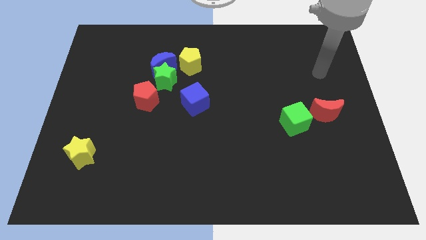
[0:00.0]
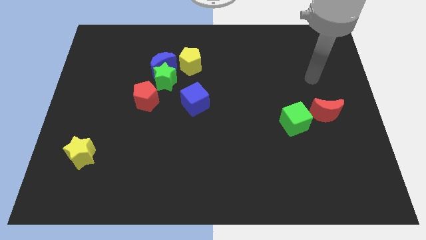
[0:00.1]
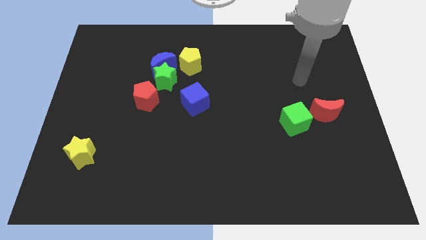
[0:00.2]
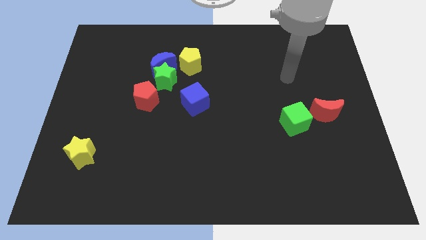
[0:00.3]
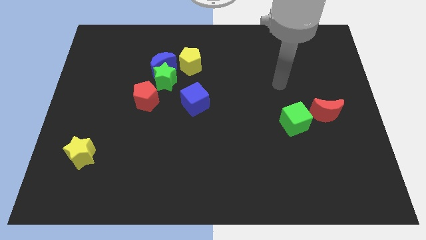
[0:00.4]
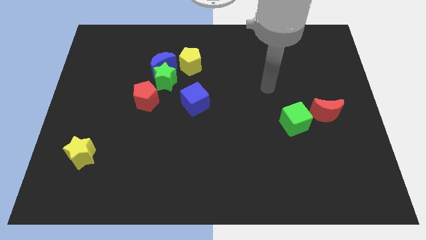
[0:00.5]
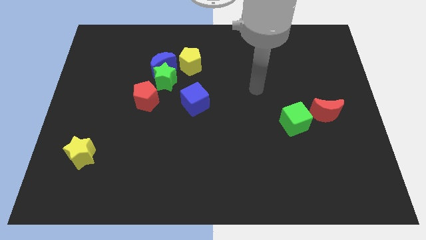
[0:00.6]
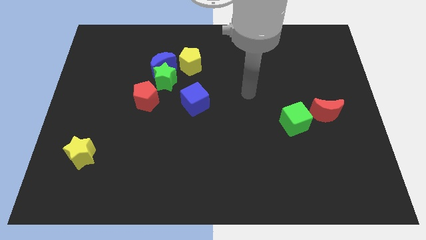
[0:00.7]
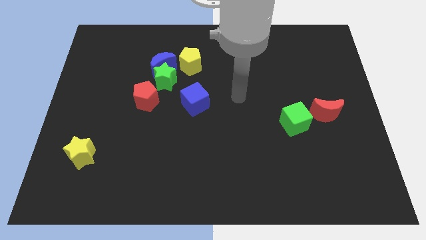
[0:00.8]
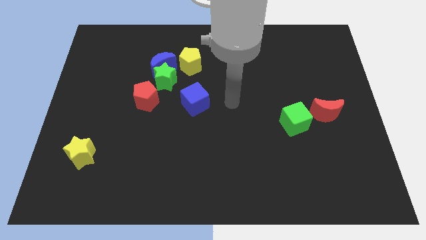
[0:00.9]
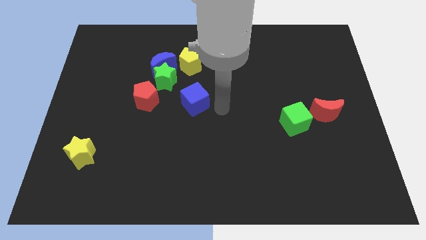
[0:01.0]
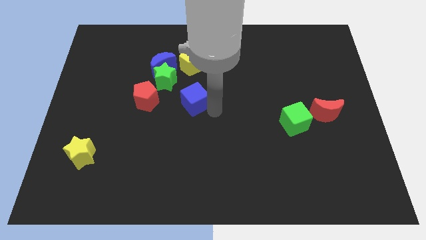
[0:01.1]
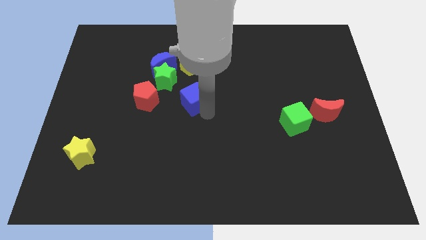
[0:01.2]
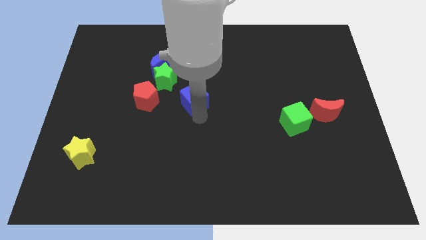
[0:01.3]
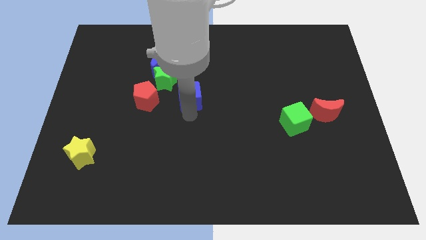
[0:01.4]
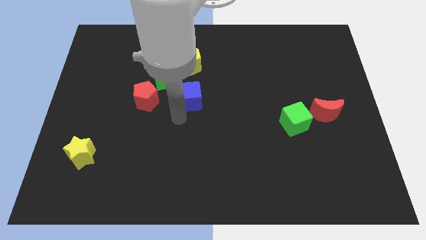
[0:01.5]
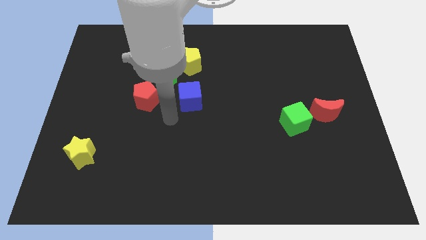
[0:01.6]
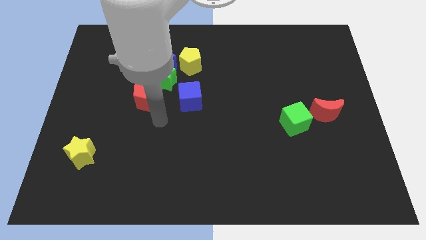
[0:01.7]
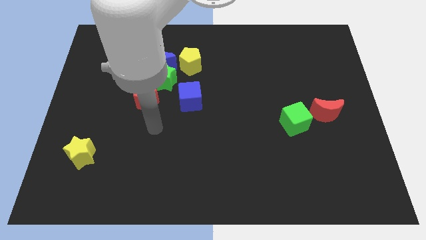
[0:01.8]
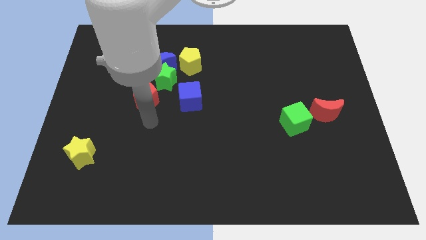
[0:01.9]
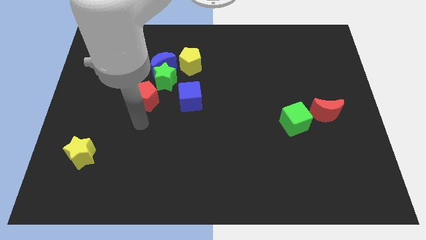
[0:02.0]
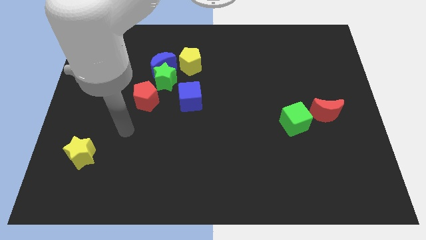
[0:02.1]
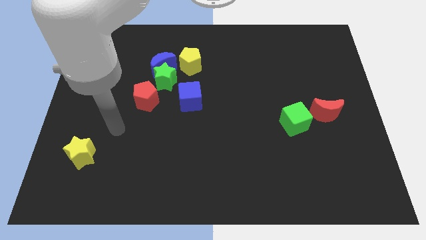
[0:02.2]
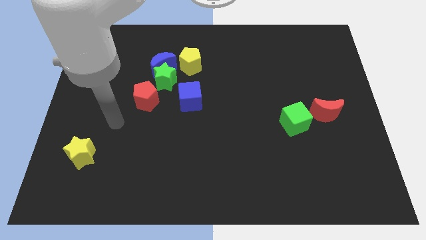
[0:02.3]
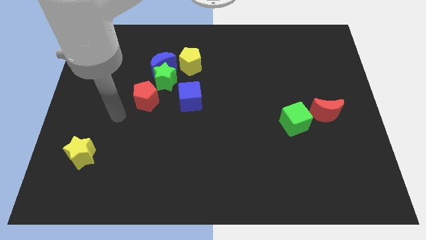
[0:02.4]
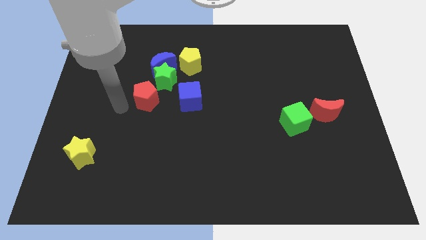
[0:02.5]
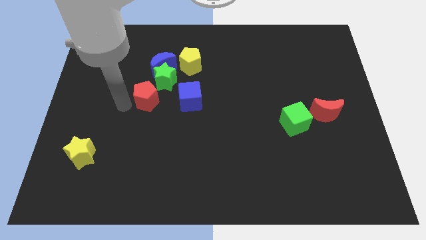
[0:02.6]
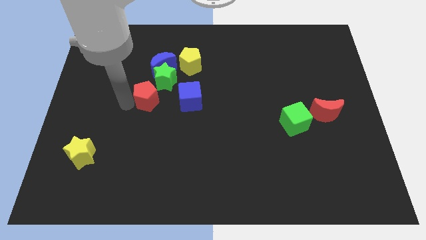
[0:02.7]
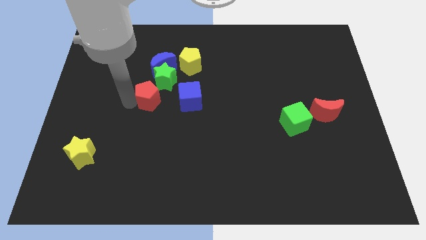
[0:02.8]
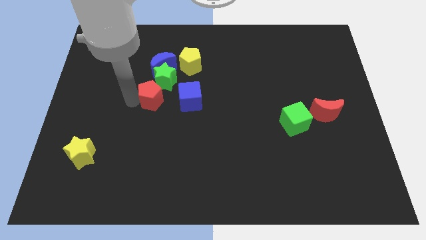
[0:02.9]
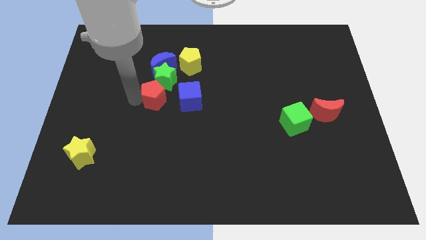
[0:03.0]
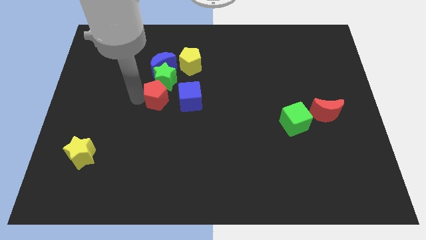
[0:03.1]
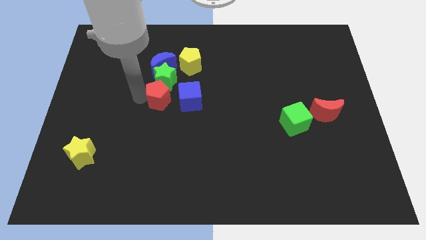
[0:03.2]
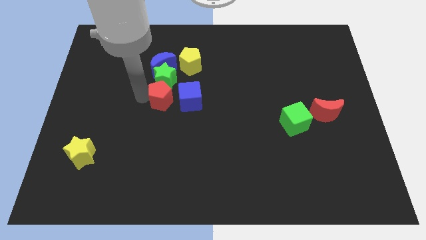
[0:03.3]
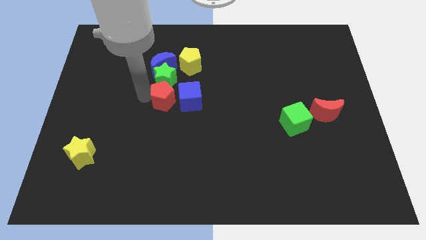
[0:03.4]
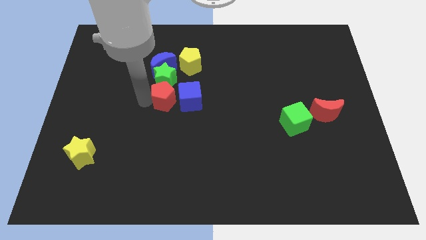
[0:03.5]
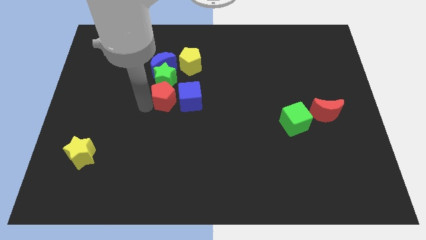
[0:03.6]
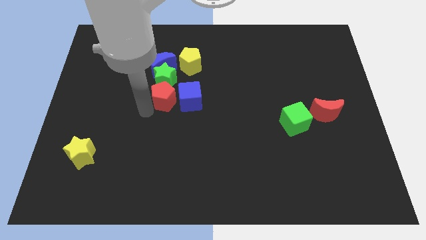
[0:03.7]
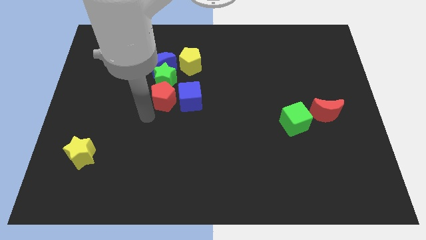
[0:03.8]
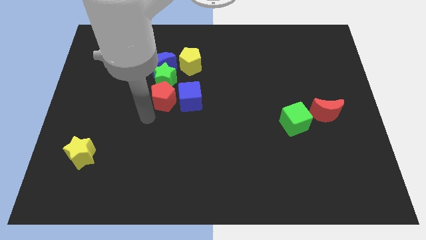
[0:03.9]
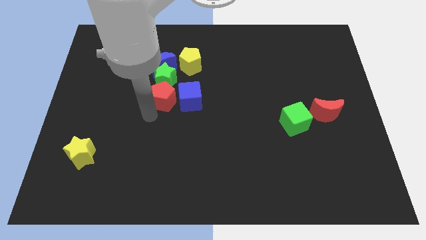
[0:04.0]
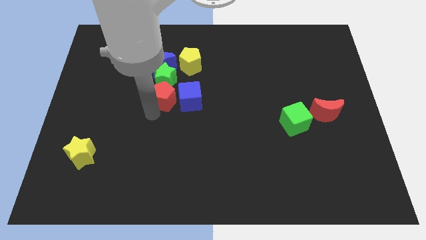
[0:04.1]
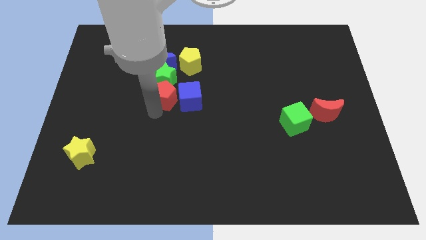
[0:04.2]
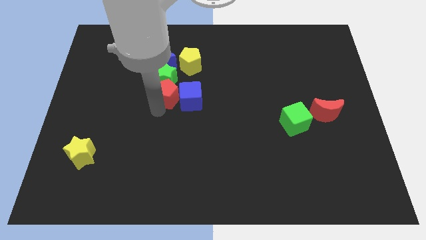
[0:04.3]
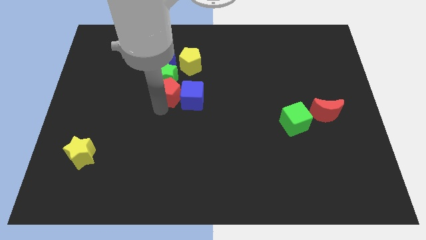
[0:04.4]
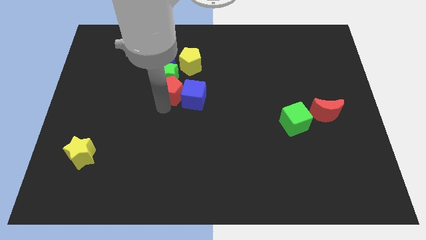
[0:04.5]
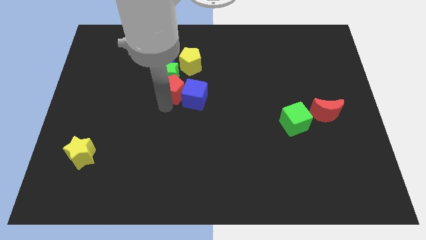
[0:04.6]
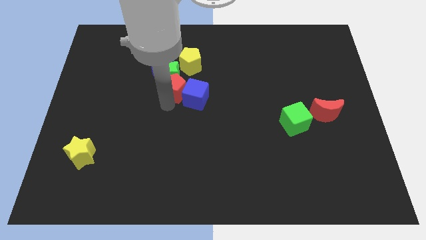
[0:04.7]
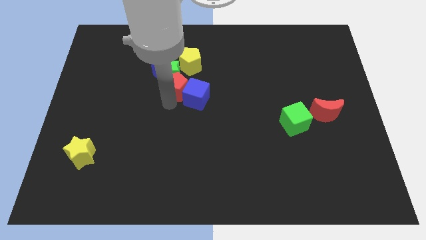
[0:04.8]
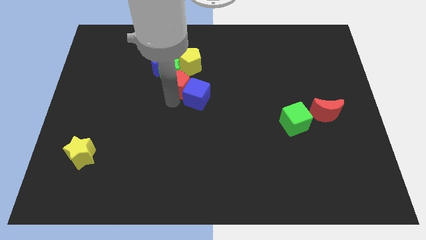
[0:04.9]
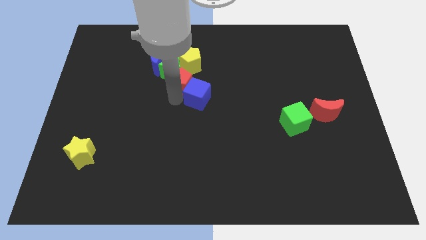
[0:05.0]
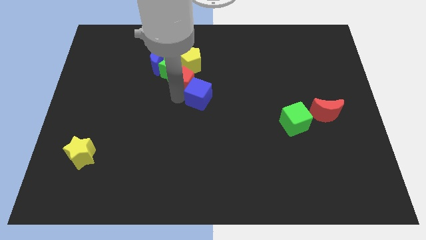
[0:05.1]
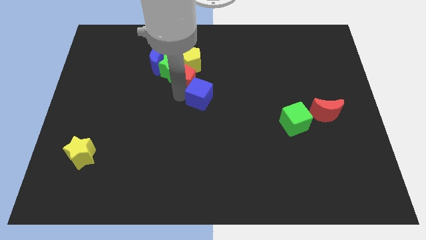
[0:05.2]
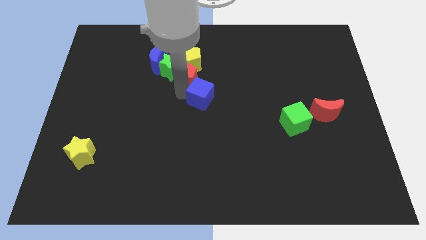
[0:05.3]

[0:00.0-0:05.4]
push the red pentagon to the yellow pentagon

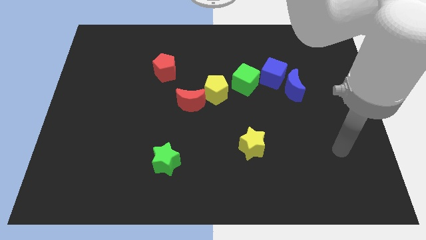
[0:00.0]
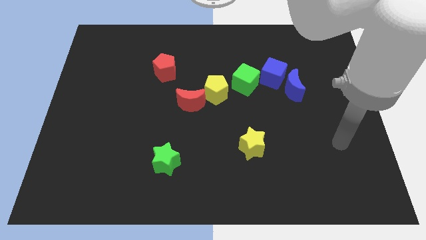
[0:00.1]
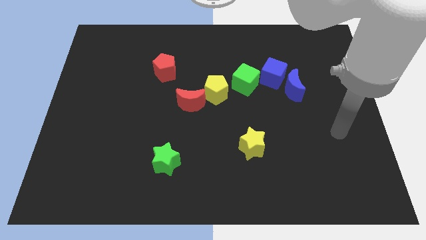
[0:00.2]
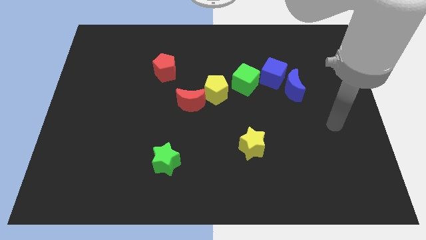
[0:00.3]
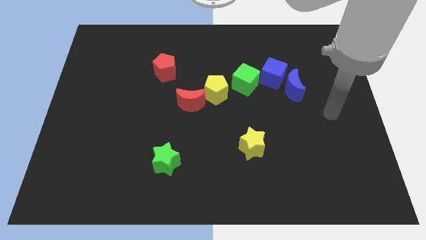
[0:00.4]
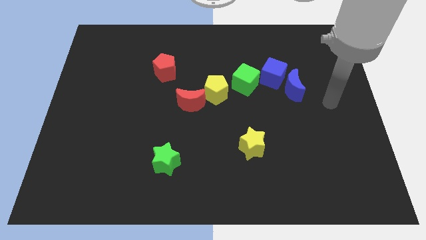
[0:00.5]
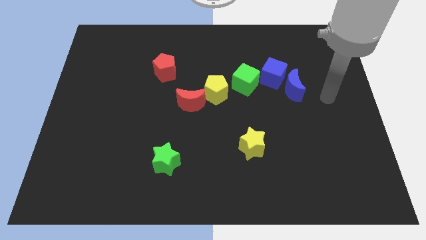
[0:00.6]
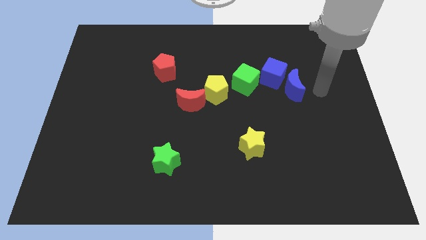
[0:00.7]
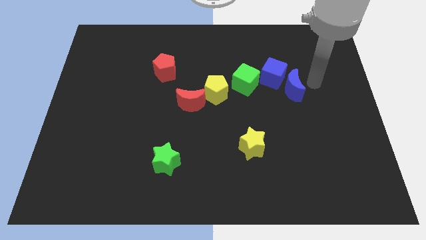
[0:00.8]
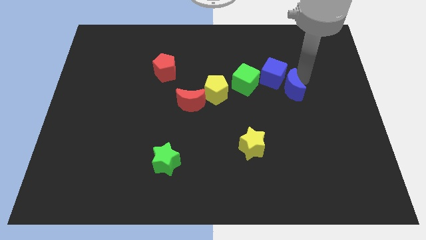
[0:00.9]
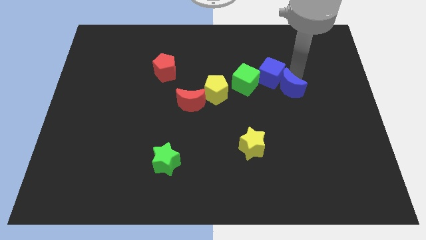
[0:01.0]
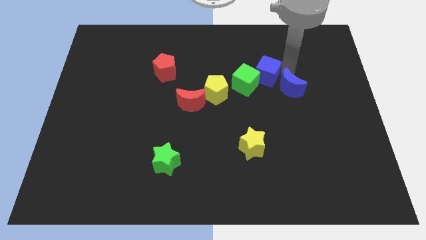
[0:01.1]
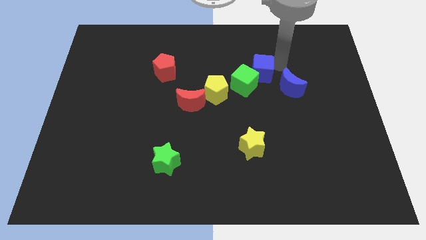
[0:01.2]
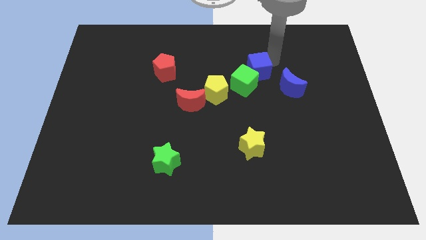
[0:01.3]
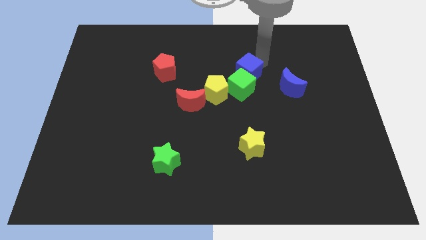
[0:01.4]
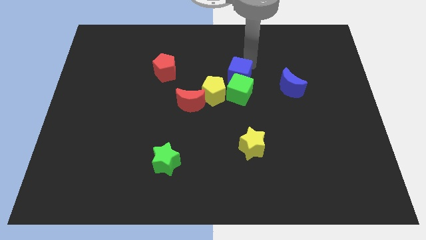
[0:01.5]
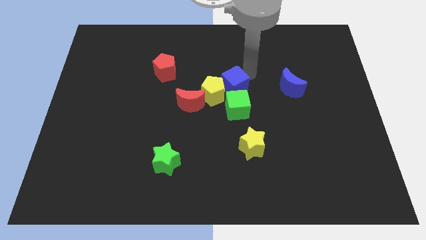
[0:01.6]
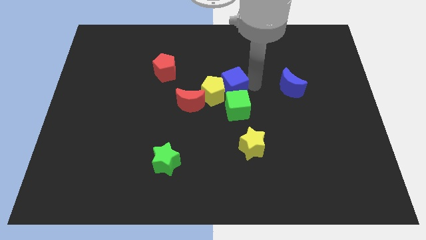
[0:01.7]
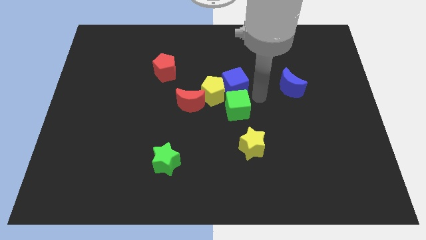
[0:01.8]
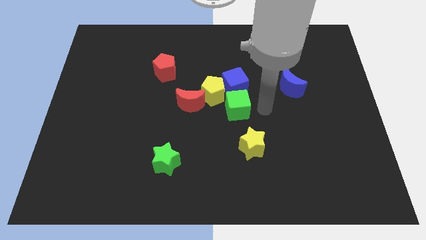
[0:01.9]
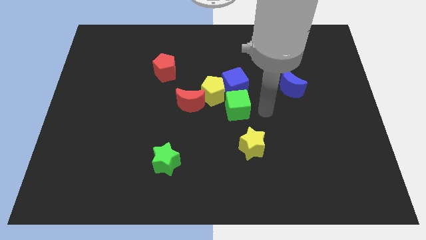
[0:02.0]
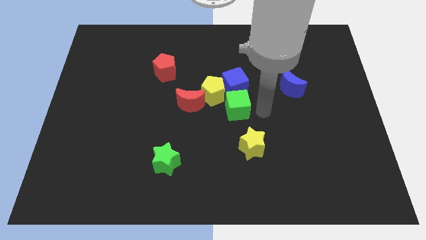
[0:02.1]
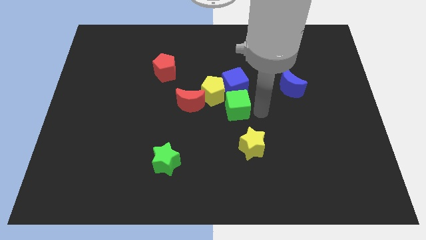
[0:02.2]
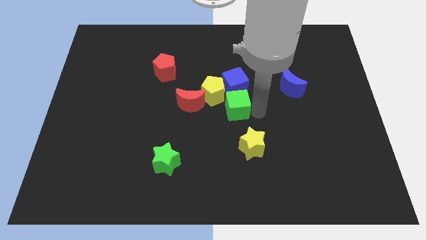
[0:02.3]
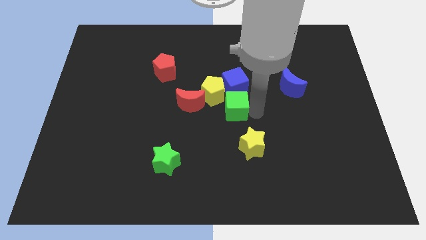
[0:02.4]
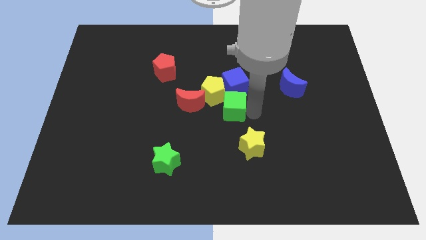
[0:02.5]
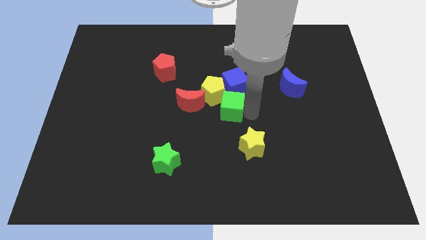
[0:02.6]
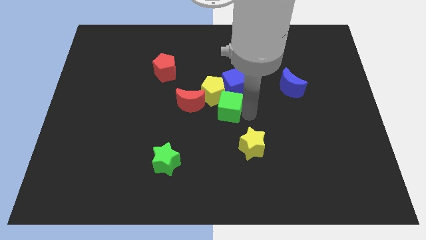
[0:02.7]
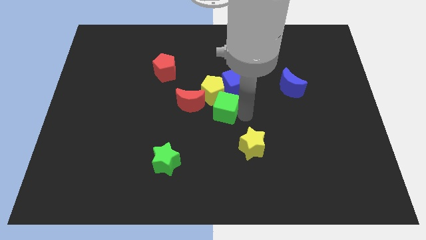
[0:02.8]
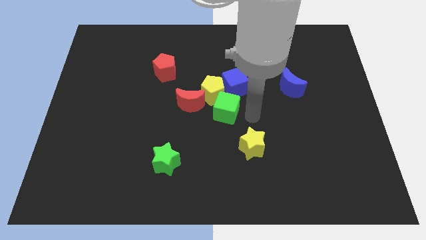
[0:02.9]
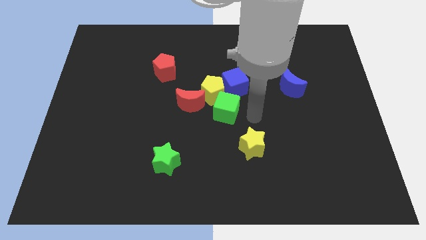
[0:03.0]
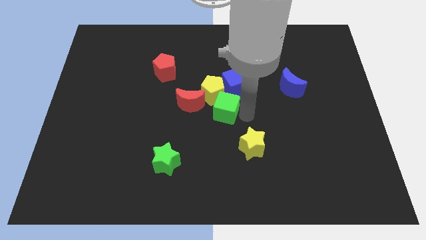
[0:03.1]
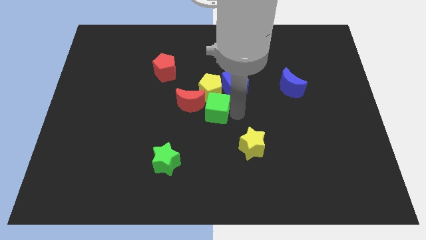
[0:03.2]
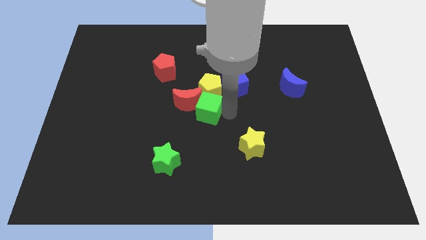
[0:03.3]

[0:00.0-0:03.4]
slide the green cube close to the red moon
